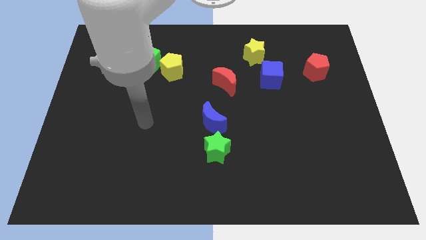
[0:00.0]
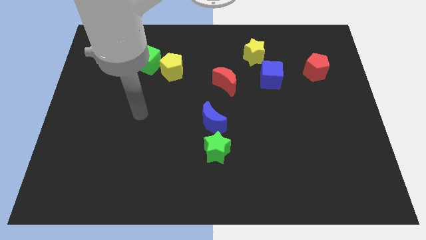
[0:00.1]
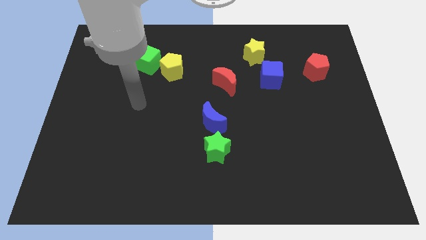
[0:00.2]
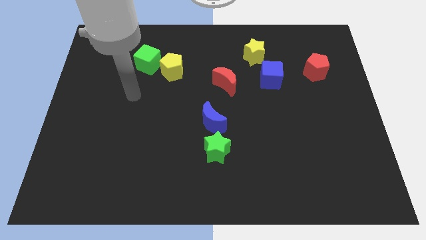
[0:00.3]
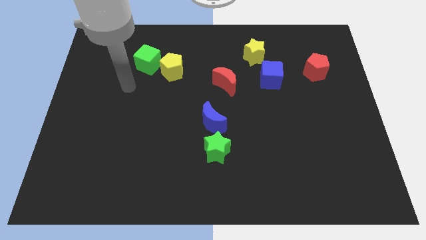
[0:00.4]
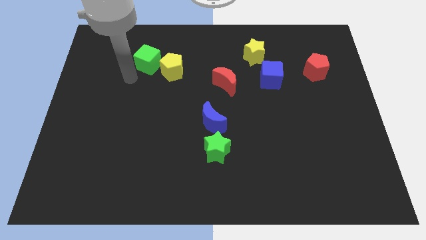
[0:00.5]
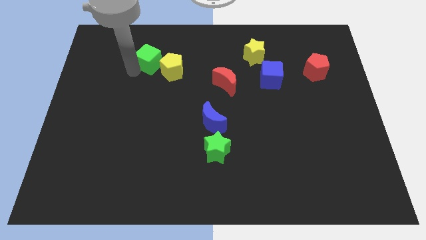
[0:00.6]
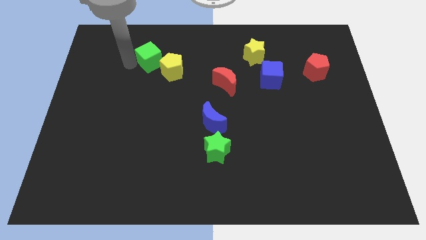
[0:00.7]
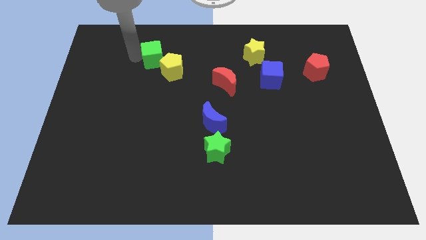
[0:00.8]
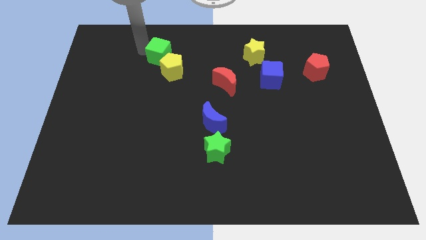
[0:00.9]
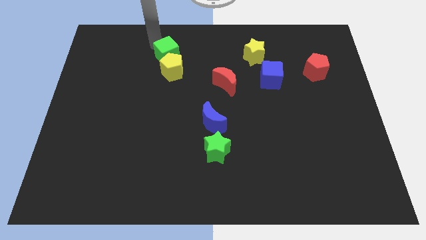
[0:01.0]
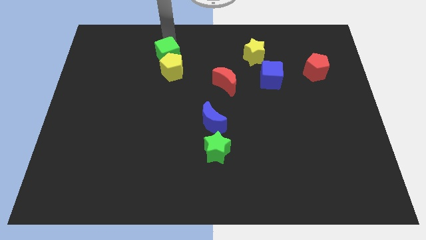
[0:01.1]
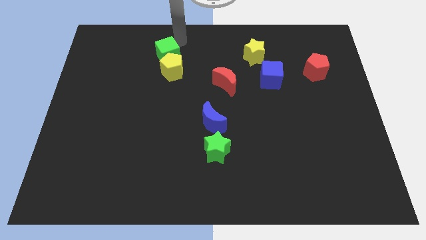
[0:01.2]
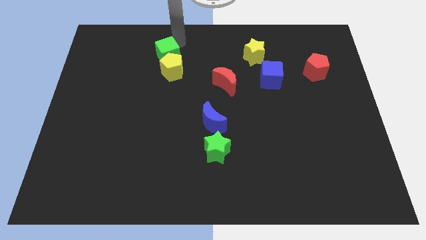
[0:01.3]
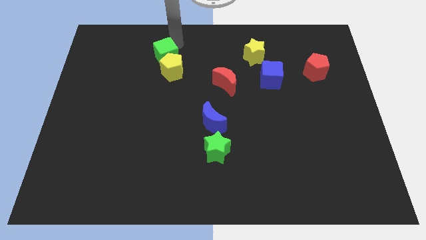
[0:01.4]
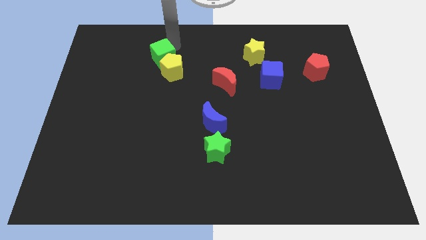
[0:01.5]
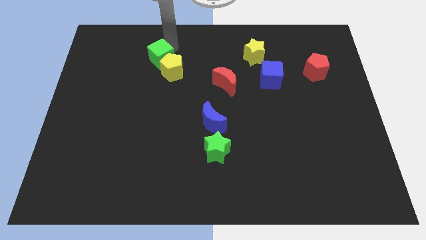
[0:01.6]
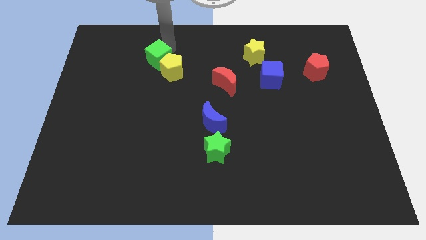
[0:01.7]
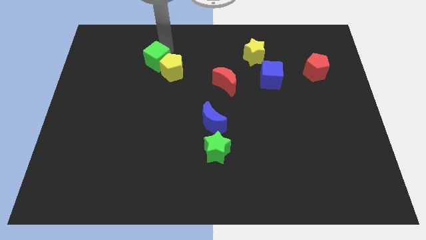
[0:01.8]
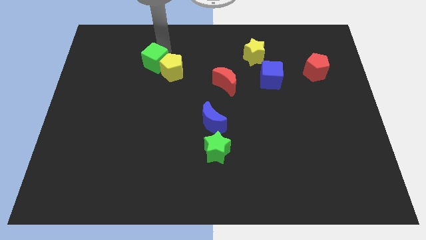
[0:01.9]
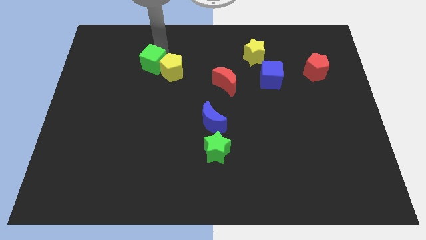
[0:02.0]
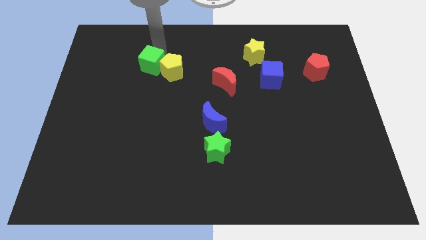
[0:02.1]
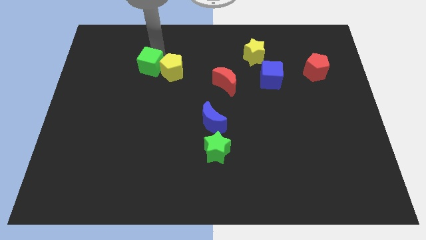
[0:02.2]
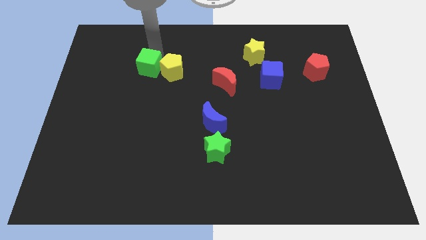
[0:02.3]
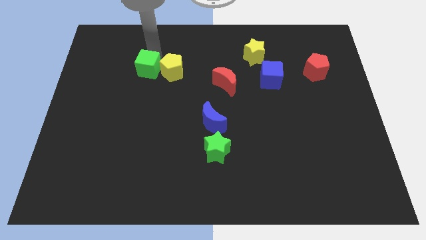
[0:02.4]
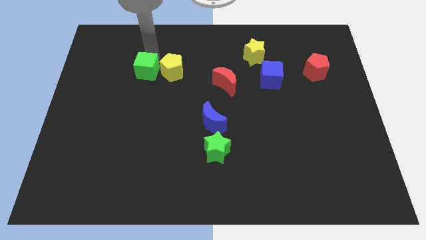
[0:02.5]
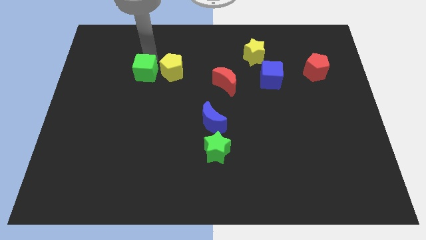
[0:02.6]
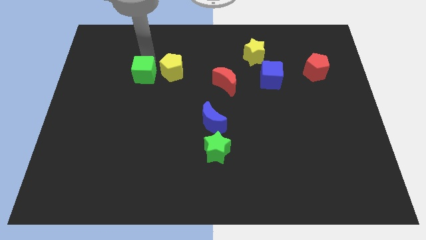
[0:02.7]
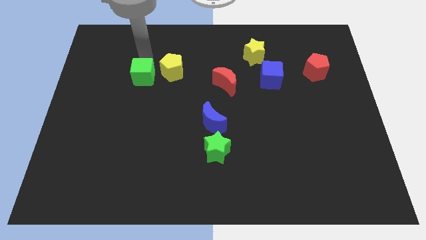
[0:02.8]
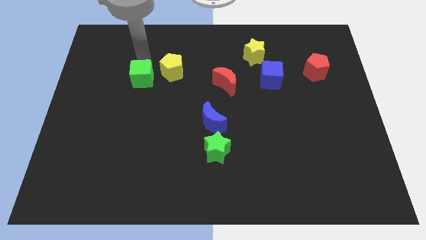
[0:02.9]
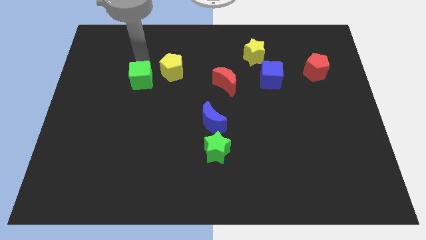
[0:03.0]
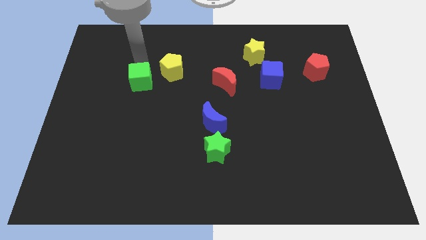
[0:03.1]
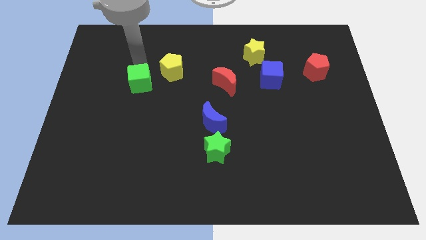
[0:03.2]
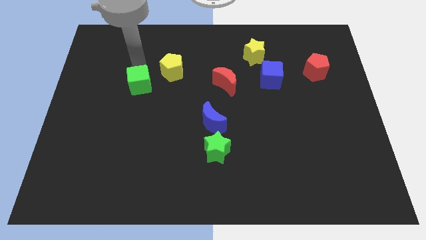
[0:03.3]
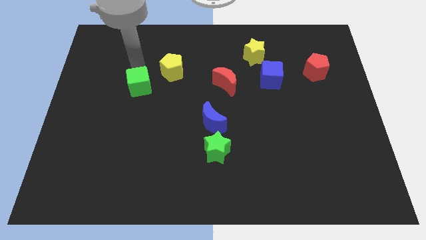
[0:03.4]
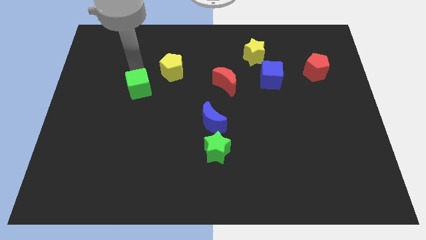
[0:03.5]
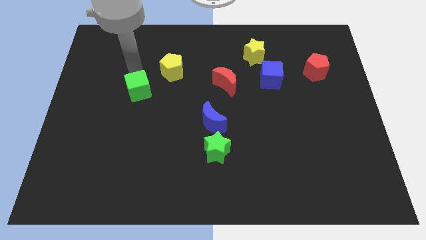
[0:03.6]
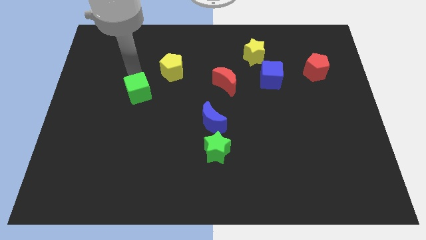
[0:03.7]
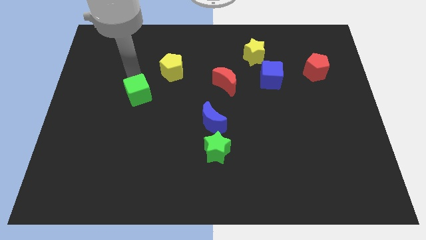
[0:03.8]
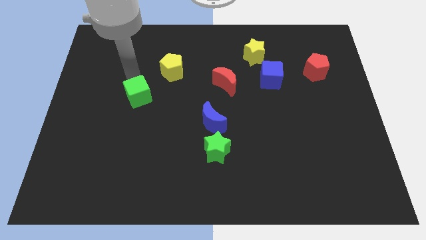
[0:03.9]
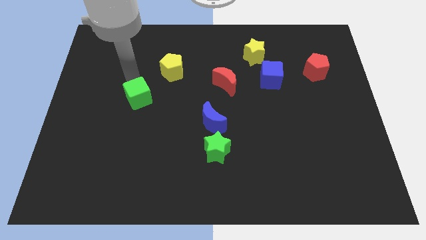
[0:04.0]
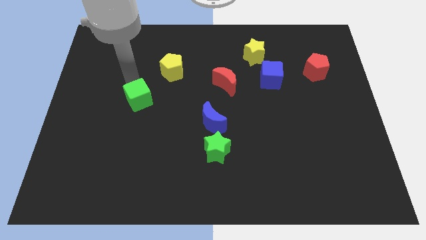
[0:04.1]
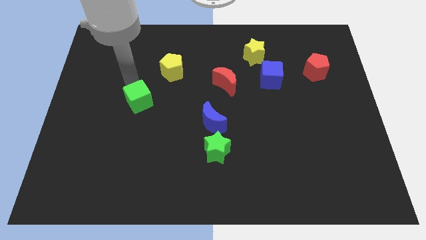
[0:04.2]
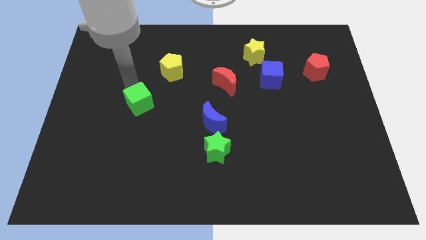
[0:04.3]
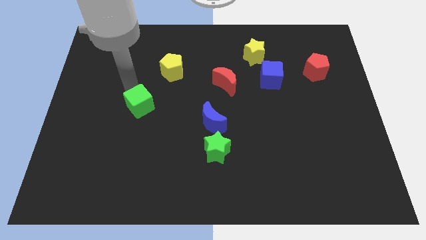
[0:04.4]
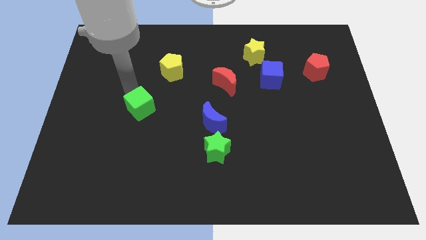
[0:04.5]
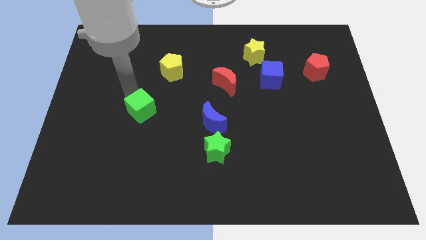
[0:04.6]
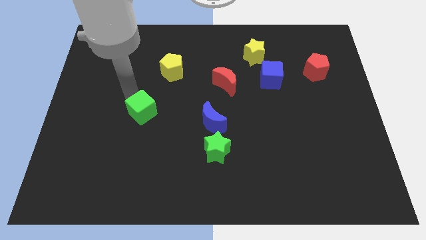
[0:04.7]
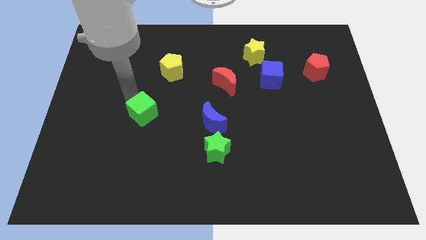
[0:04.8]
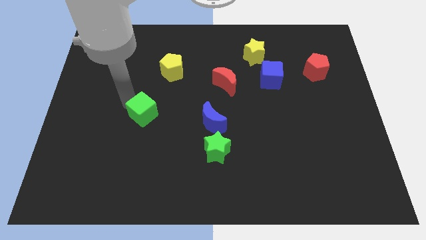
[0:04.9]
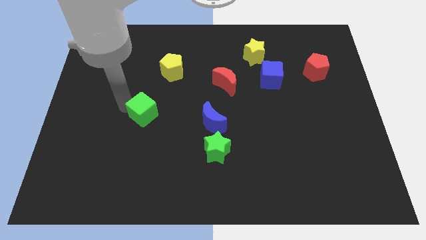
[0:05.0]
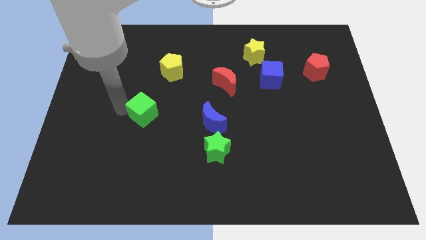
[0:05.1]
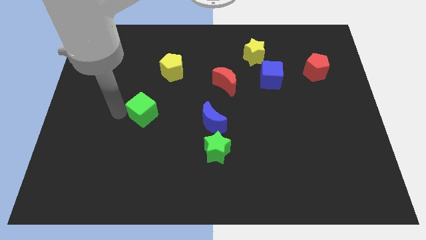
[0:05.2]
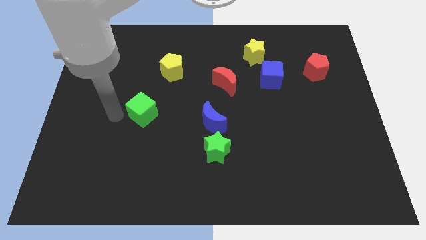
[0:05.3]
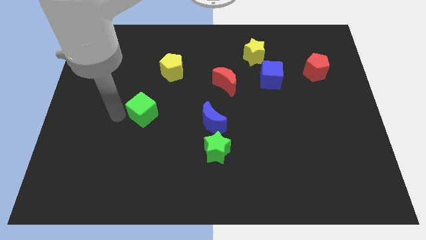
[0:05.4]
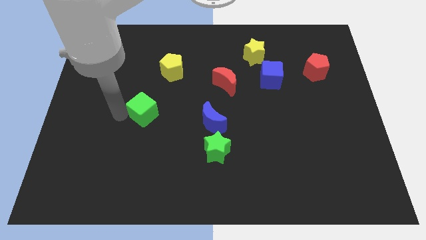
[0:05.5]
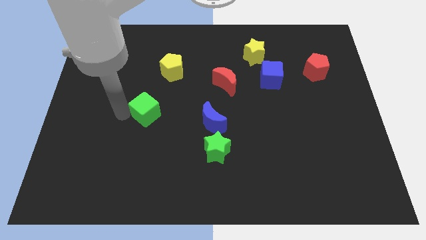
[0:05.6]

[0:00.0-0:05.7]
move the green cube left of the blue moon

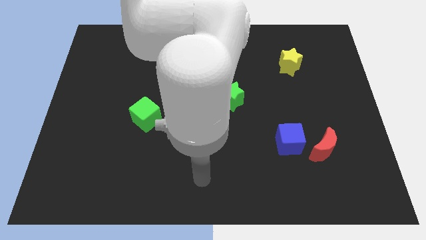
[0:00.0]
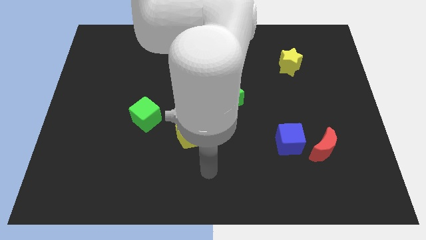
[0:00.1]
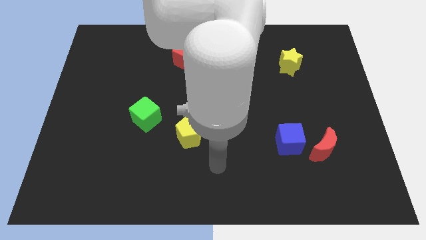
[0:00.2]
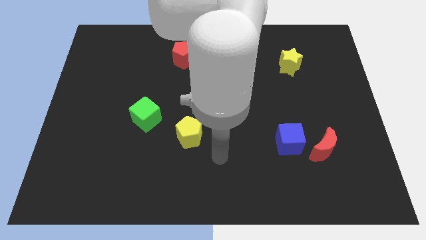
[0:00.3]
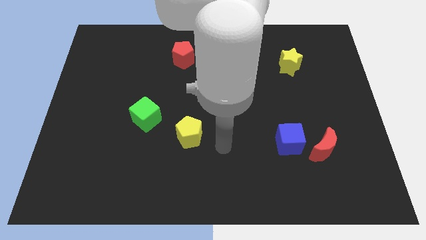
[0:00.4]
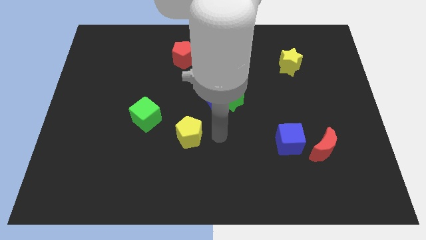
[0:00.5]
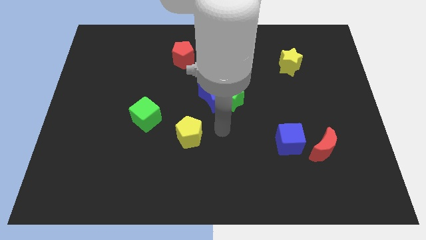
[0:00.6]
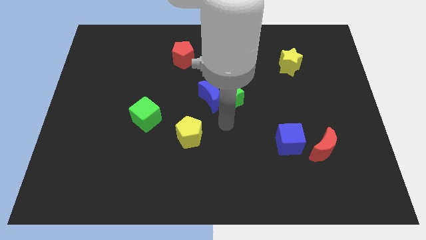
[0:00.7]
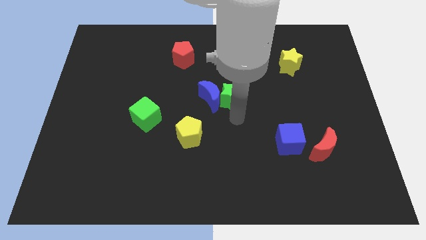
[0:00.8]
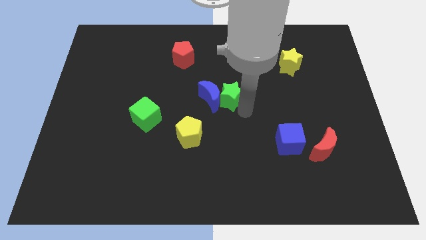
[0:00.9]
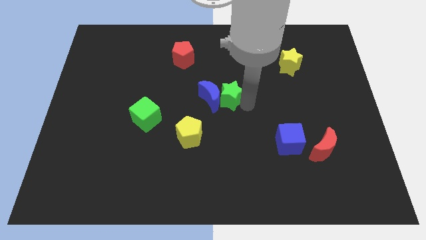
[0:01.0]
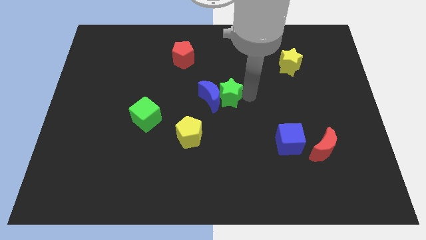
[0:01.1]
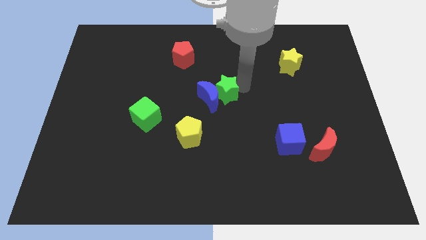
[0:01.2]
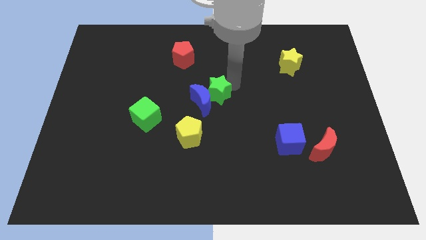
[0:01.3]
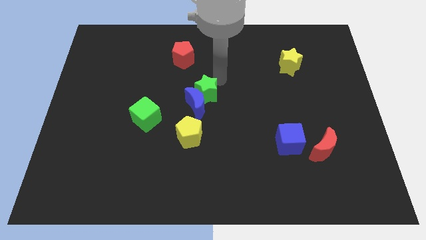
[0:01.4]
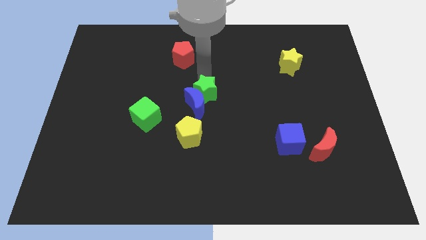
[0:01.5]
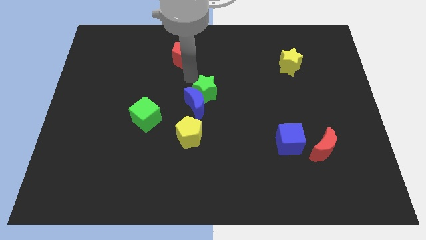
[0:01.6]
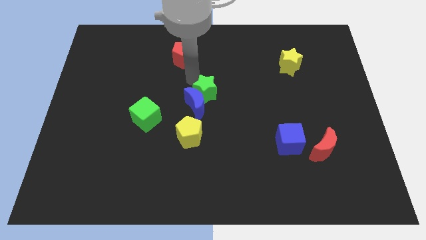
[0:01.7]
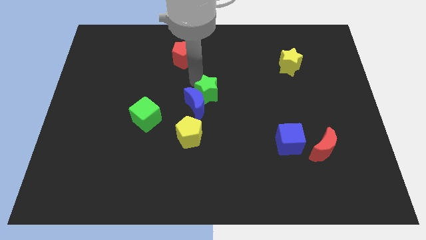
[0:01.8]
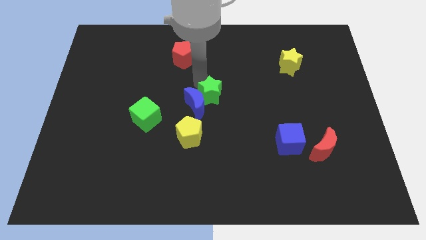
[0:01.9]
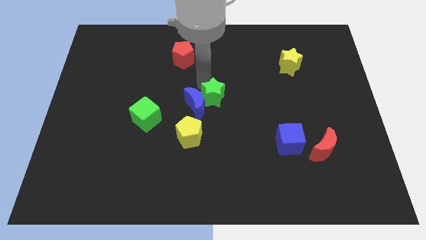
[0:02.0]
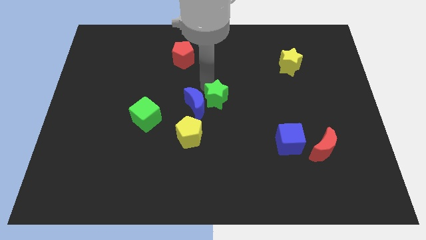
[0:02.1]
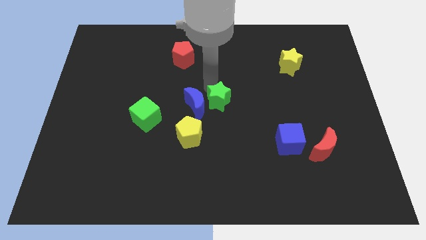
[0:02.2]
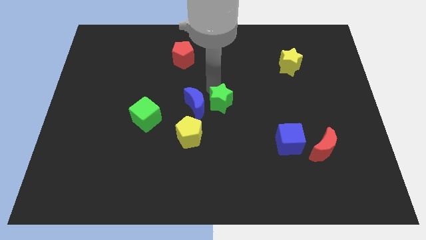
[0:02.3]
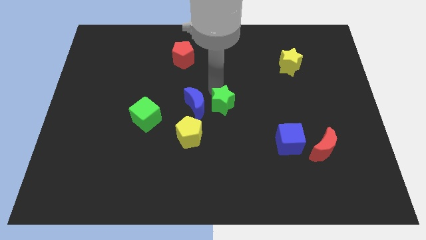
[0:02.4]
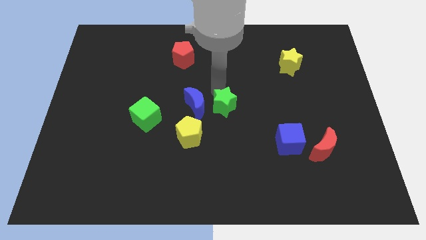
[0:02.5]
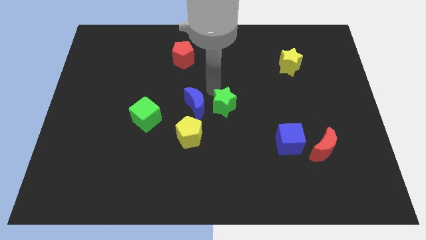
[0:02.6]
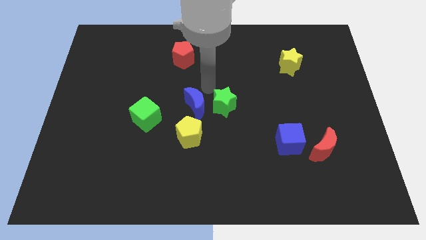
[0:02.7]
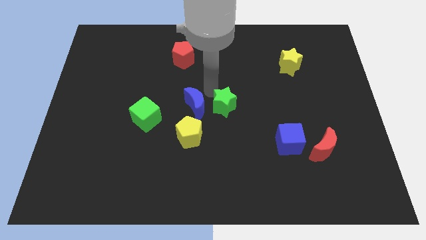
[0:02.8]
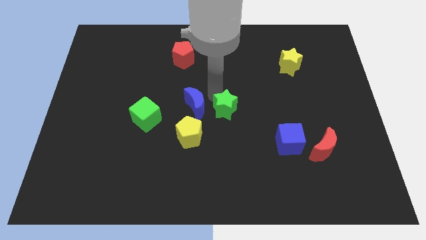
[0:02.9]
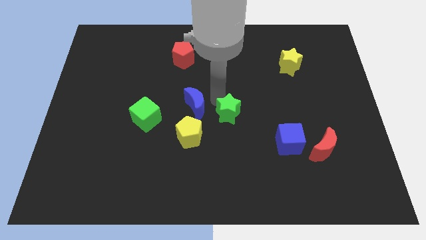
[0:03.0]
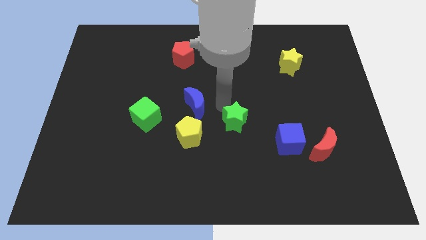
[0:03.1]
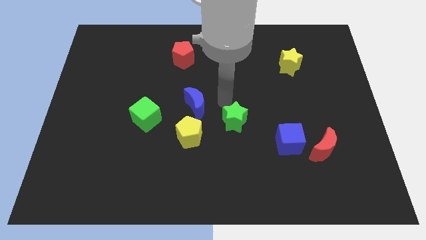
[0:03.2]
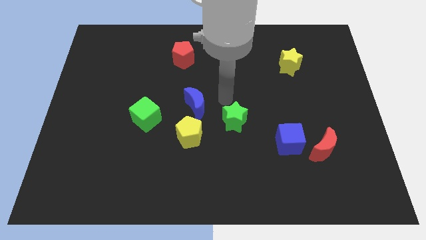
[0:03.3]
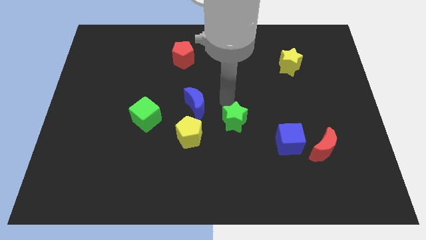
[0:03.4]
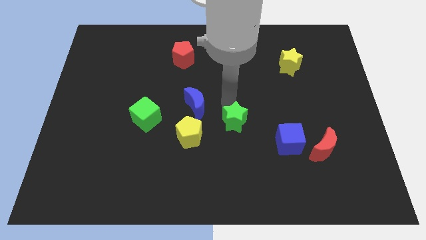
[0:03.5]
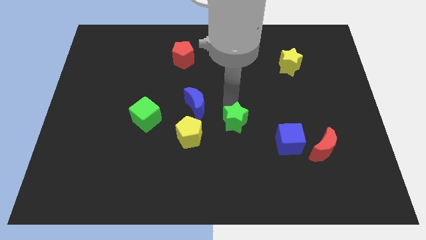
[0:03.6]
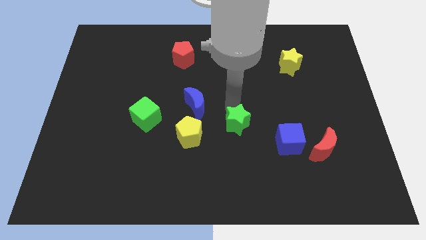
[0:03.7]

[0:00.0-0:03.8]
slide the green star to the left side of the blue cube
